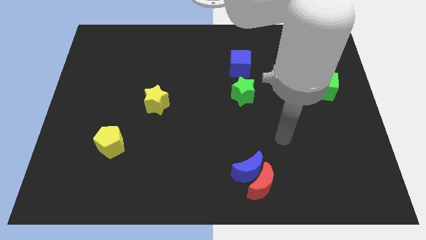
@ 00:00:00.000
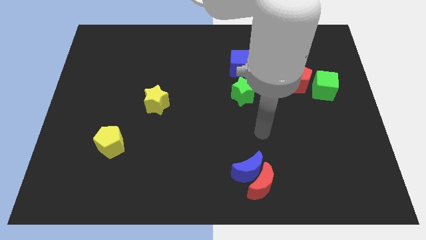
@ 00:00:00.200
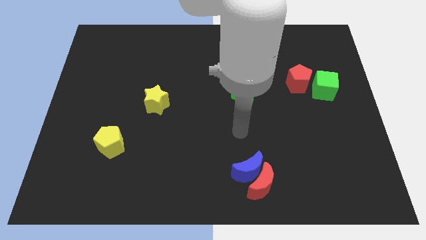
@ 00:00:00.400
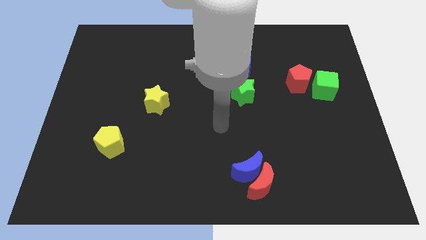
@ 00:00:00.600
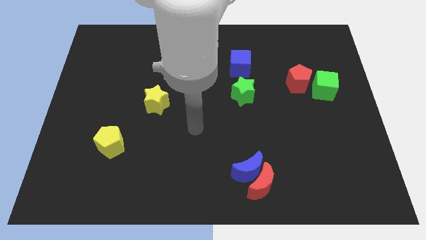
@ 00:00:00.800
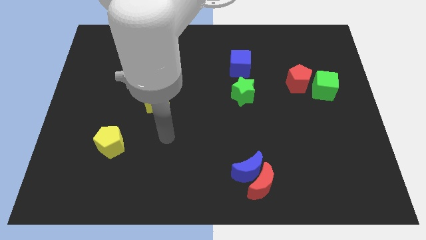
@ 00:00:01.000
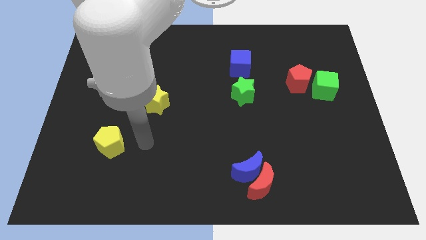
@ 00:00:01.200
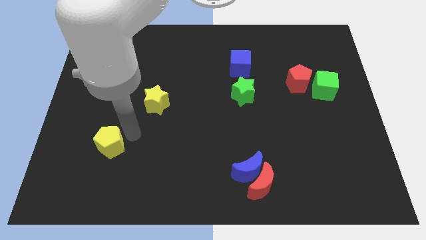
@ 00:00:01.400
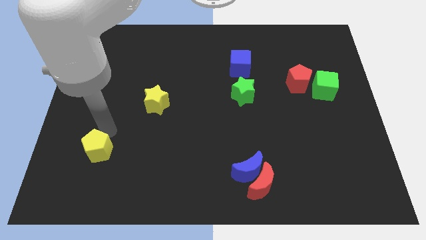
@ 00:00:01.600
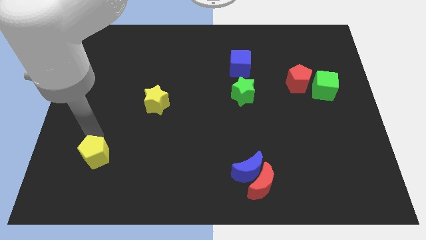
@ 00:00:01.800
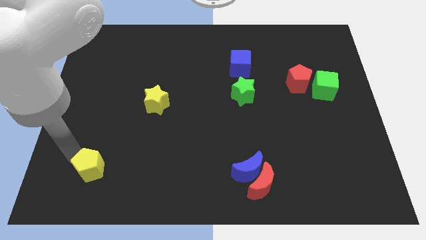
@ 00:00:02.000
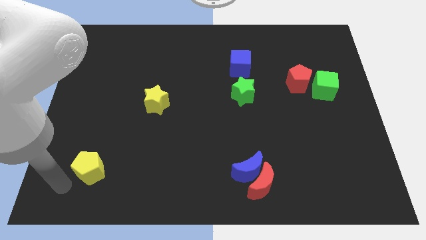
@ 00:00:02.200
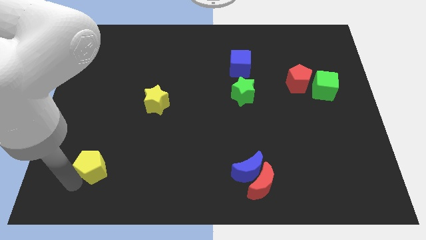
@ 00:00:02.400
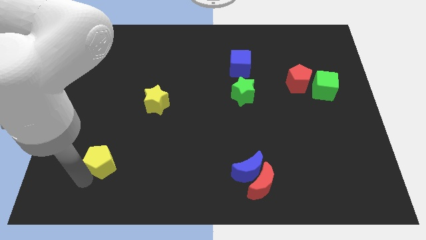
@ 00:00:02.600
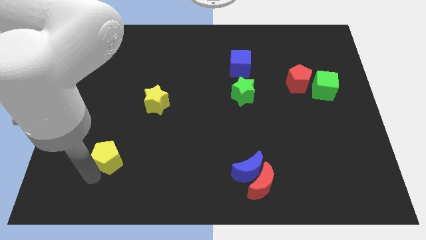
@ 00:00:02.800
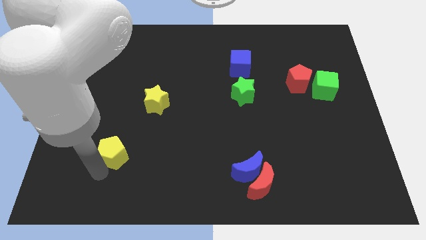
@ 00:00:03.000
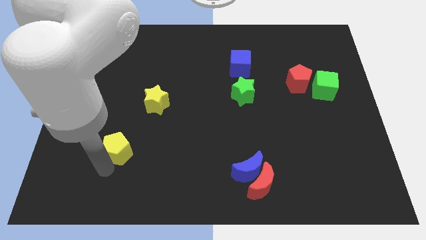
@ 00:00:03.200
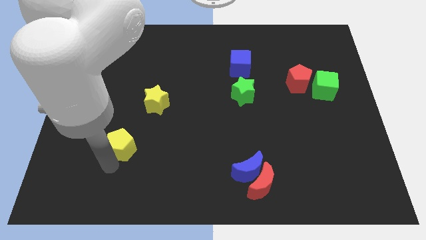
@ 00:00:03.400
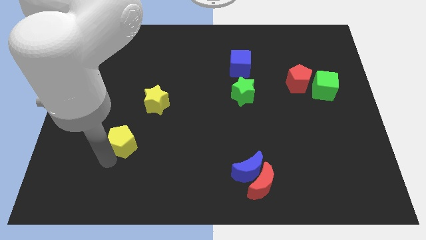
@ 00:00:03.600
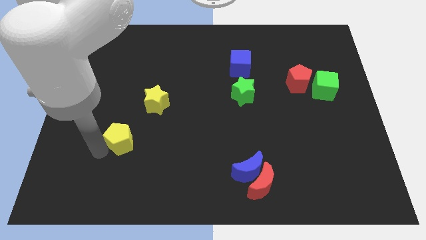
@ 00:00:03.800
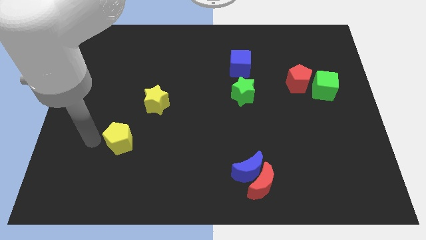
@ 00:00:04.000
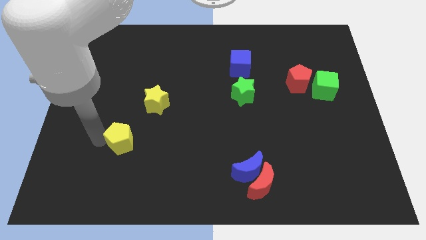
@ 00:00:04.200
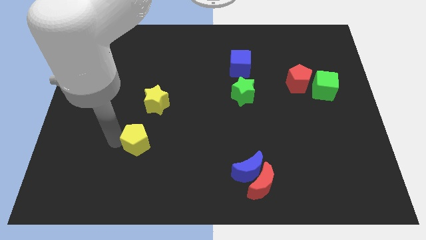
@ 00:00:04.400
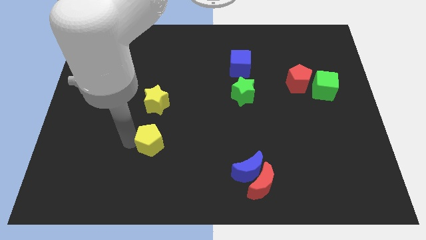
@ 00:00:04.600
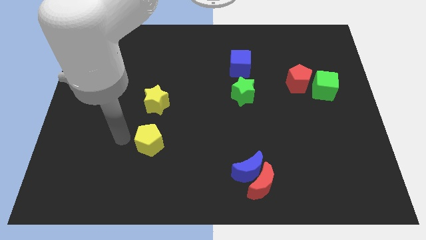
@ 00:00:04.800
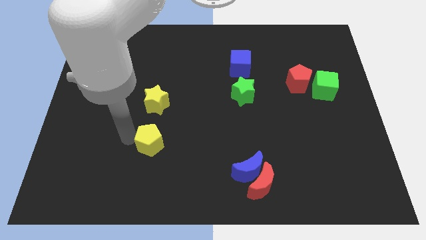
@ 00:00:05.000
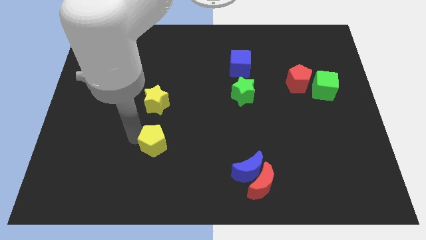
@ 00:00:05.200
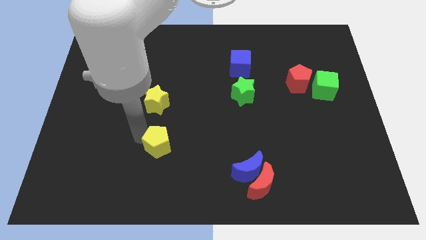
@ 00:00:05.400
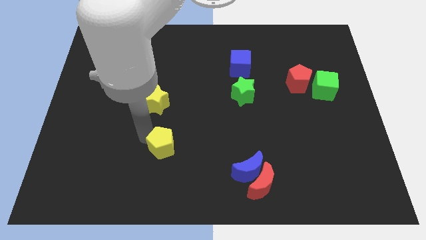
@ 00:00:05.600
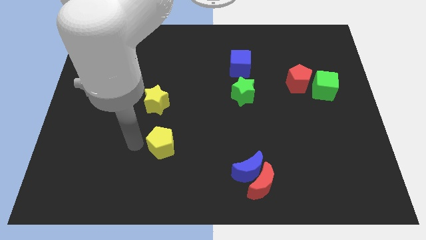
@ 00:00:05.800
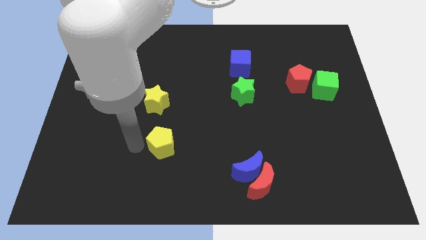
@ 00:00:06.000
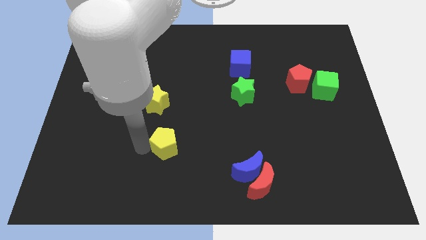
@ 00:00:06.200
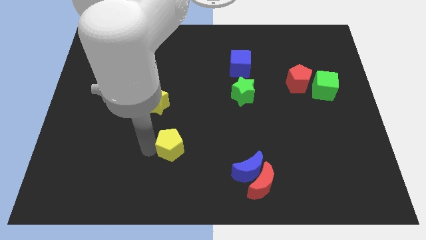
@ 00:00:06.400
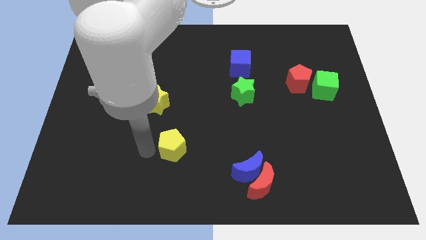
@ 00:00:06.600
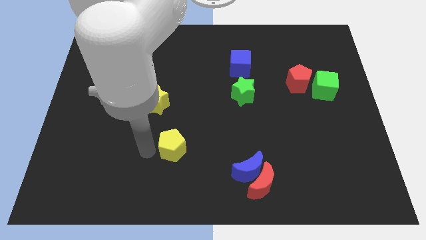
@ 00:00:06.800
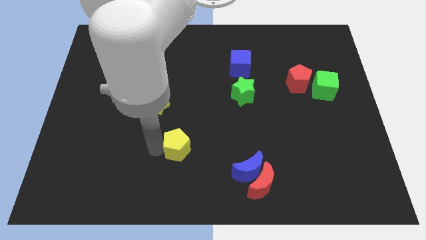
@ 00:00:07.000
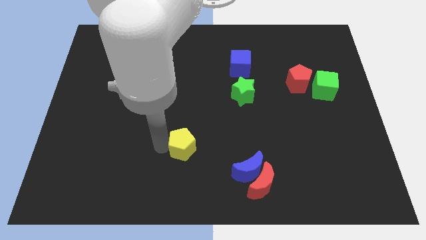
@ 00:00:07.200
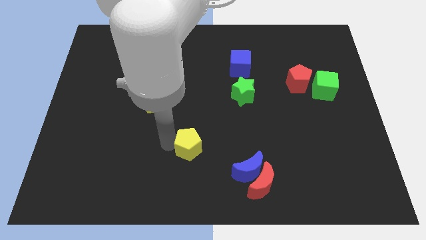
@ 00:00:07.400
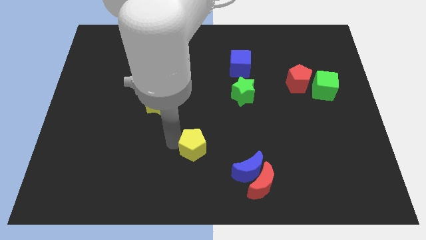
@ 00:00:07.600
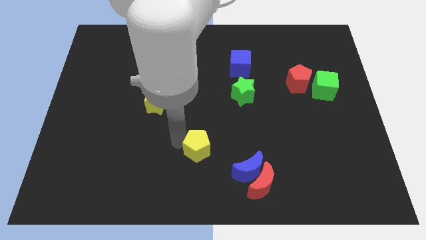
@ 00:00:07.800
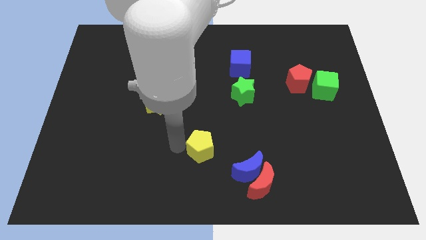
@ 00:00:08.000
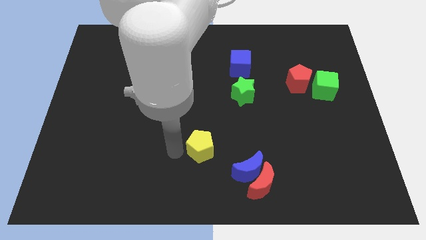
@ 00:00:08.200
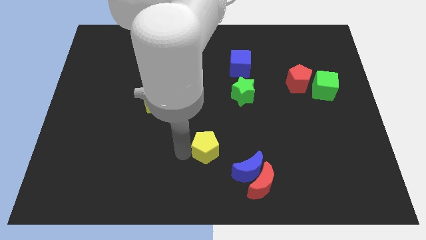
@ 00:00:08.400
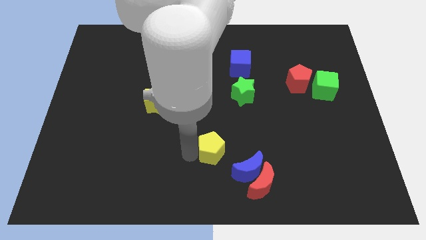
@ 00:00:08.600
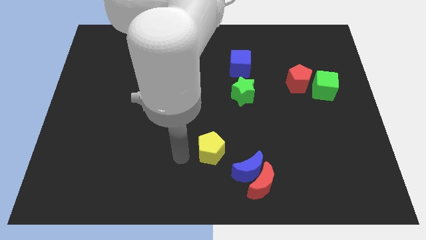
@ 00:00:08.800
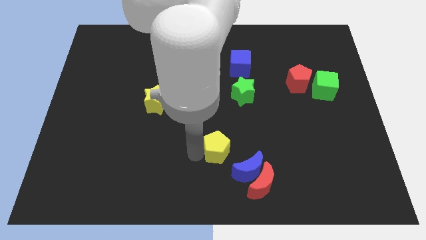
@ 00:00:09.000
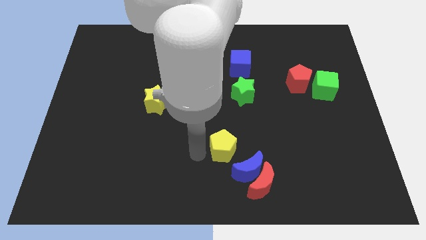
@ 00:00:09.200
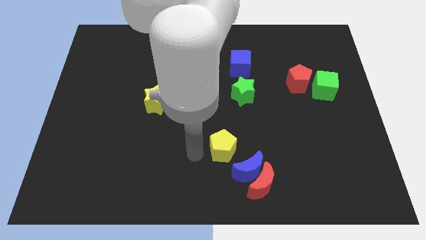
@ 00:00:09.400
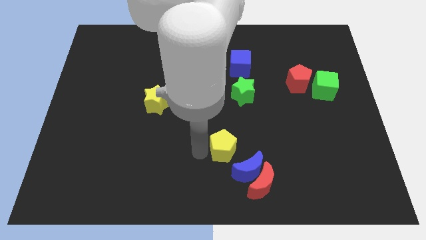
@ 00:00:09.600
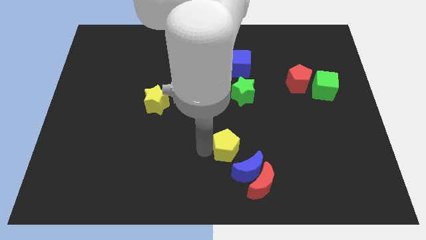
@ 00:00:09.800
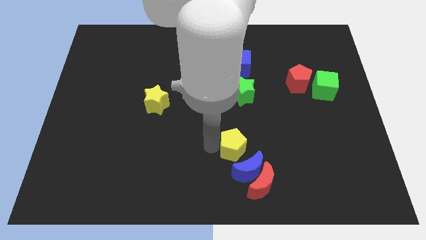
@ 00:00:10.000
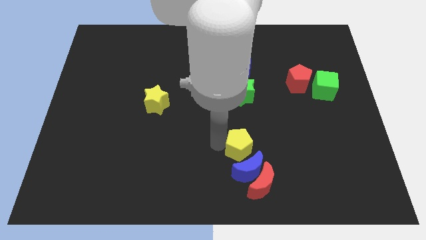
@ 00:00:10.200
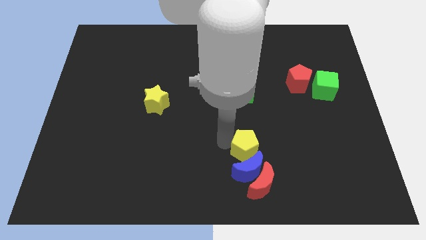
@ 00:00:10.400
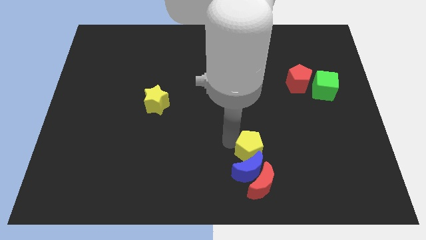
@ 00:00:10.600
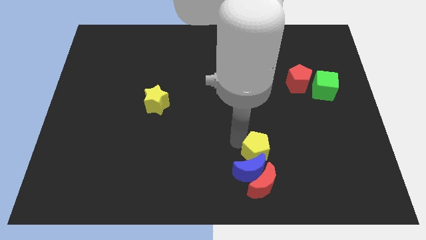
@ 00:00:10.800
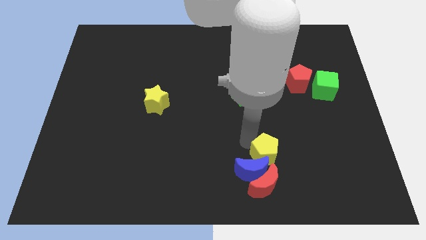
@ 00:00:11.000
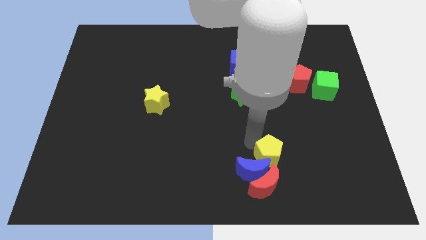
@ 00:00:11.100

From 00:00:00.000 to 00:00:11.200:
move the yellow pentagon just right of the blue moon

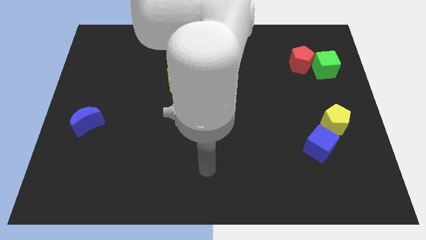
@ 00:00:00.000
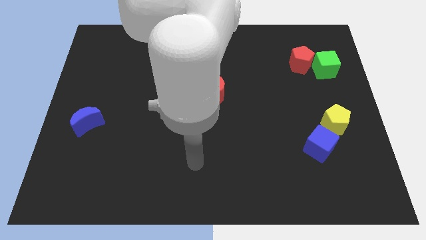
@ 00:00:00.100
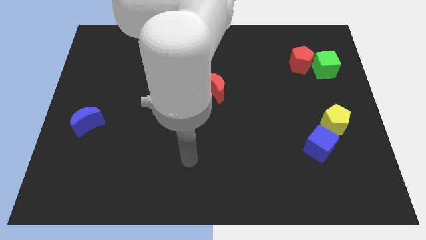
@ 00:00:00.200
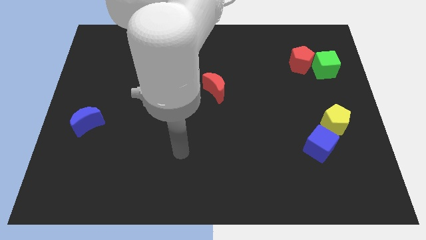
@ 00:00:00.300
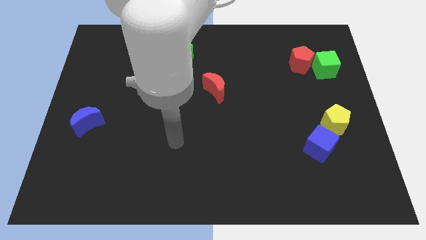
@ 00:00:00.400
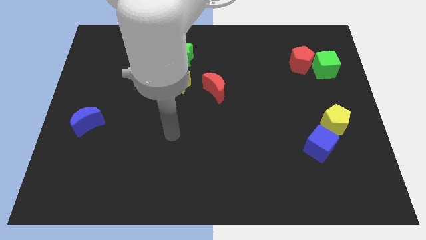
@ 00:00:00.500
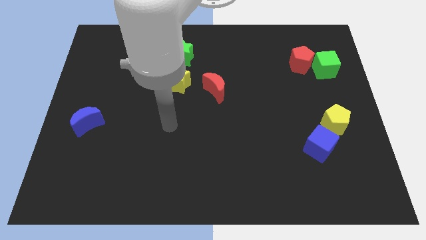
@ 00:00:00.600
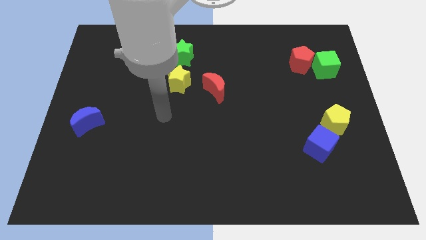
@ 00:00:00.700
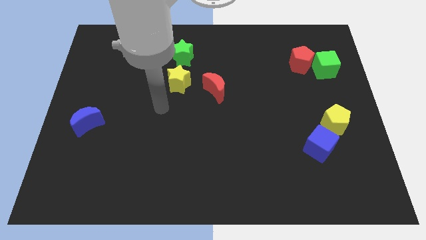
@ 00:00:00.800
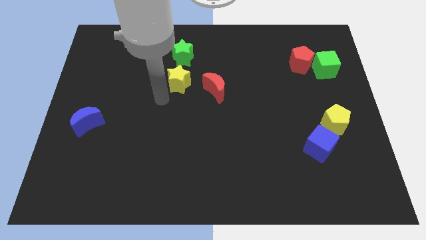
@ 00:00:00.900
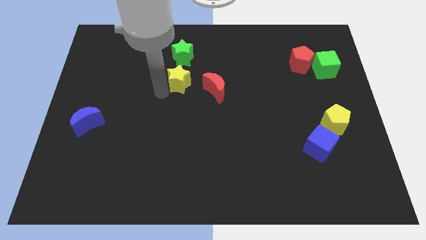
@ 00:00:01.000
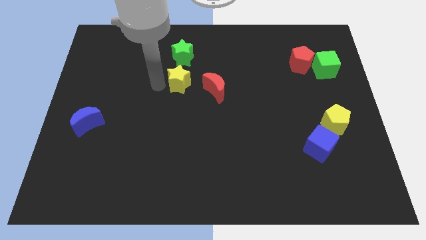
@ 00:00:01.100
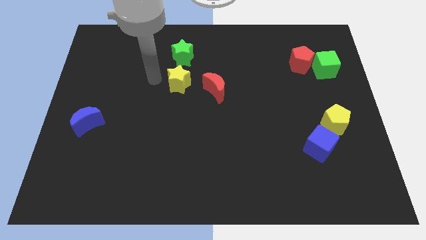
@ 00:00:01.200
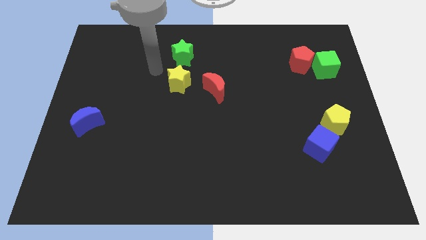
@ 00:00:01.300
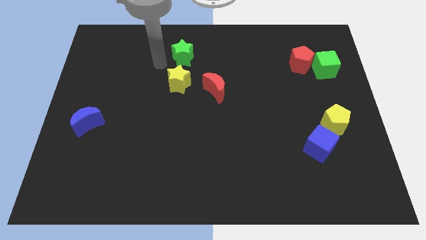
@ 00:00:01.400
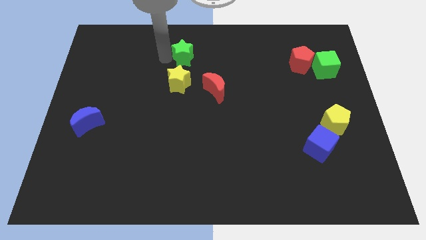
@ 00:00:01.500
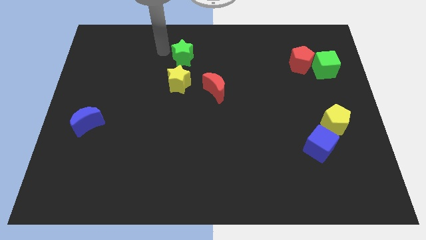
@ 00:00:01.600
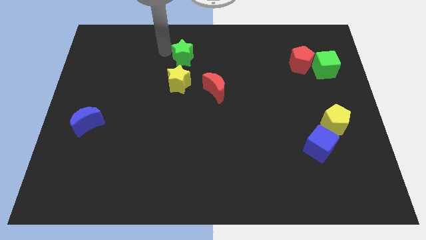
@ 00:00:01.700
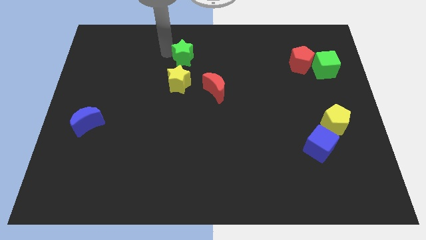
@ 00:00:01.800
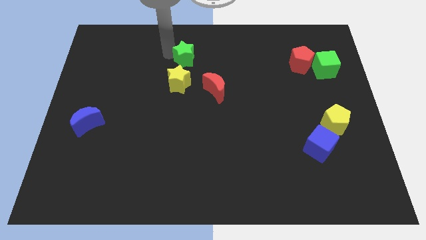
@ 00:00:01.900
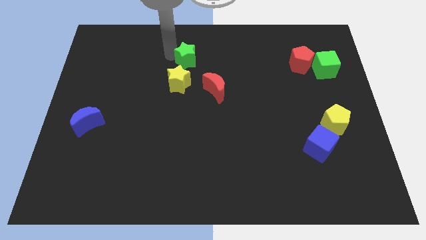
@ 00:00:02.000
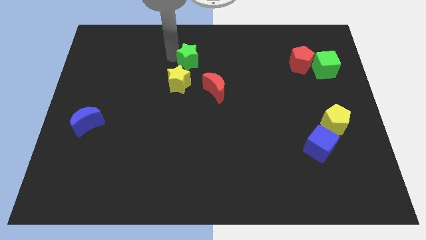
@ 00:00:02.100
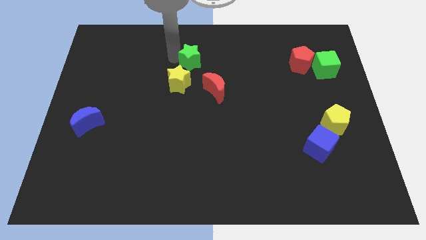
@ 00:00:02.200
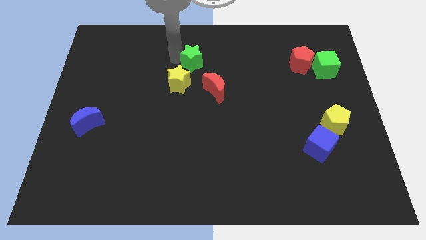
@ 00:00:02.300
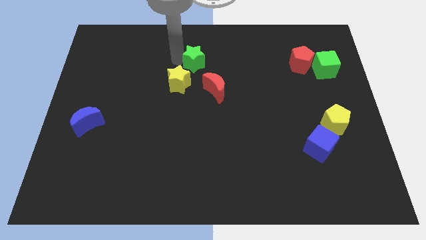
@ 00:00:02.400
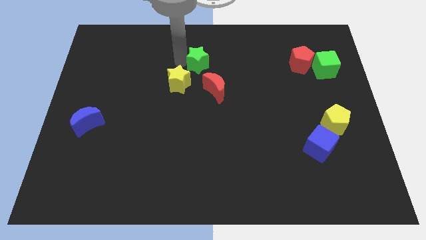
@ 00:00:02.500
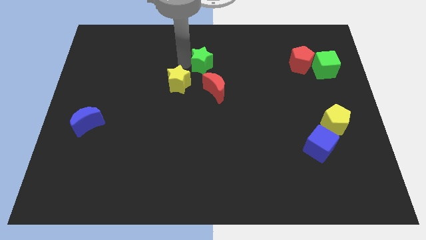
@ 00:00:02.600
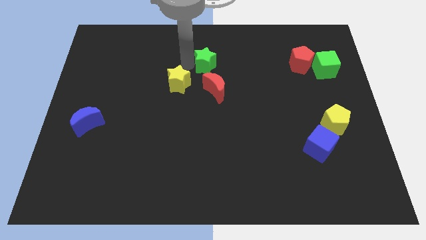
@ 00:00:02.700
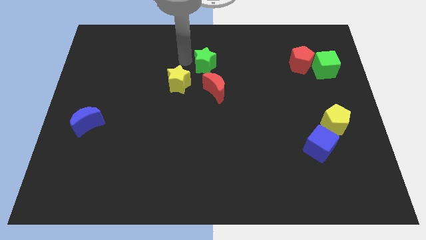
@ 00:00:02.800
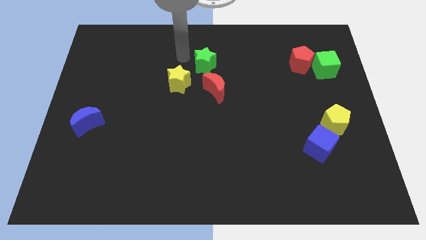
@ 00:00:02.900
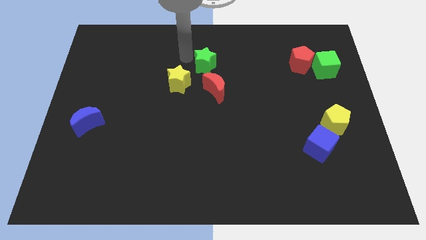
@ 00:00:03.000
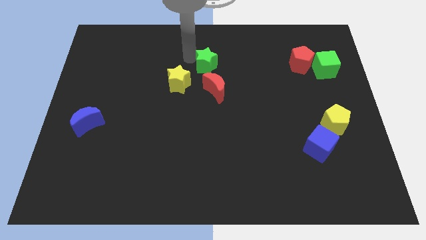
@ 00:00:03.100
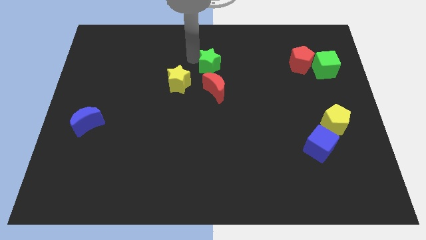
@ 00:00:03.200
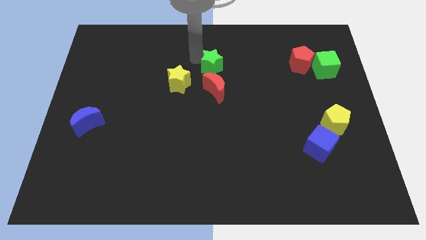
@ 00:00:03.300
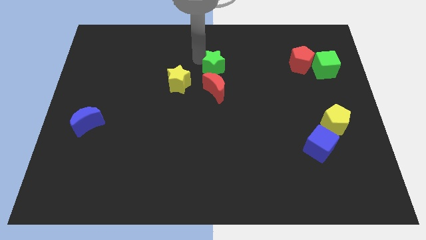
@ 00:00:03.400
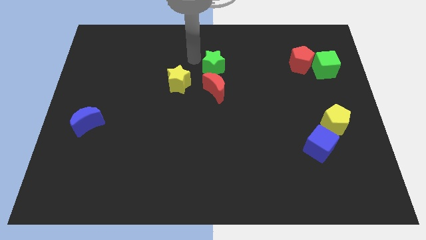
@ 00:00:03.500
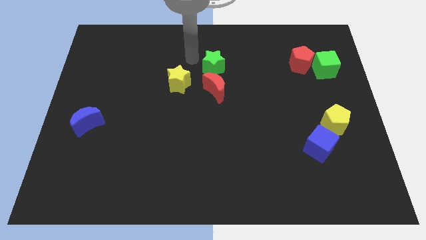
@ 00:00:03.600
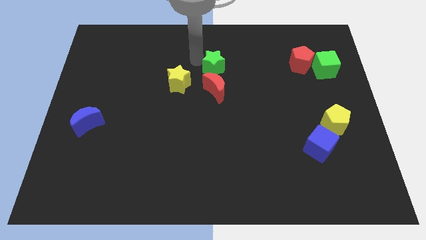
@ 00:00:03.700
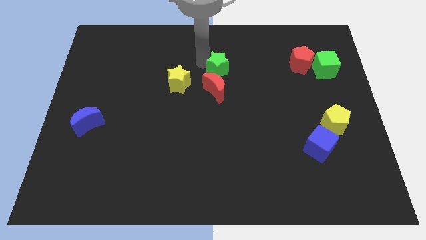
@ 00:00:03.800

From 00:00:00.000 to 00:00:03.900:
move the green star to the top right side of the red moon
